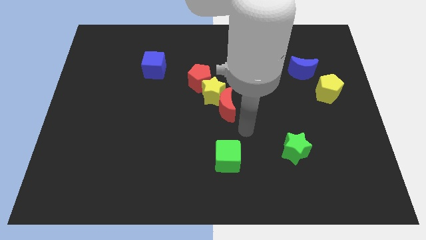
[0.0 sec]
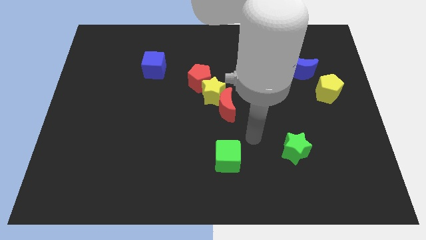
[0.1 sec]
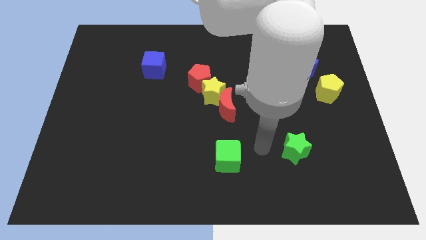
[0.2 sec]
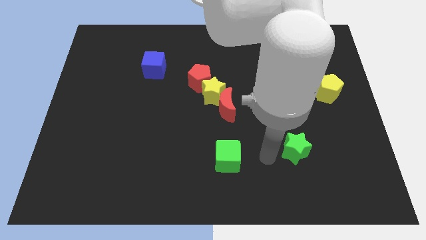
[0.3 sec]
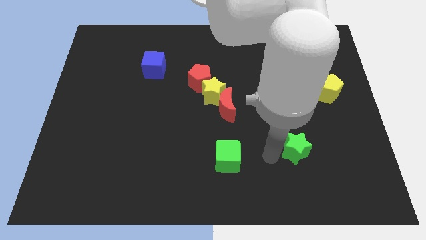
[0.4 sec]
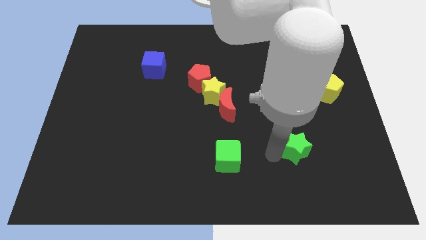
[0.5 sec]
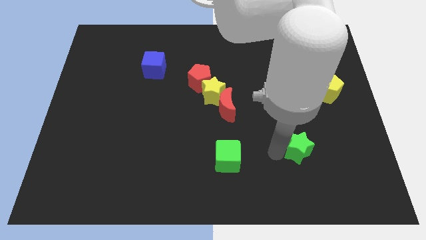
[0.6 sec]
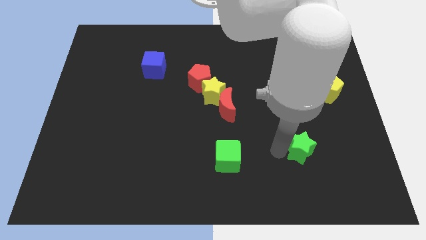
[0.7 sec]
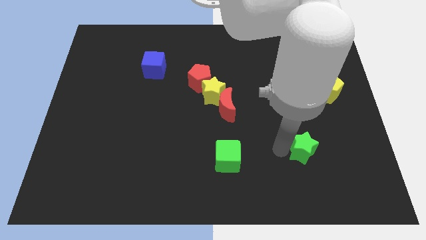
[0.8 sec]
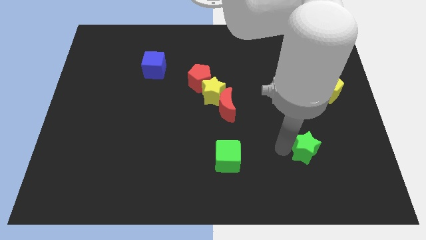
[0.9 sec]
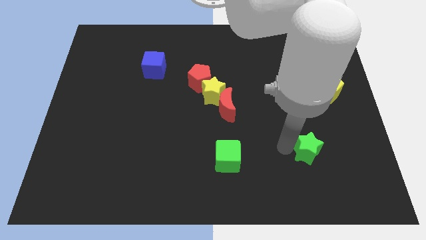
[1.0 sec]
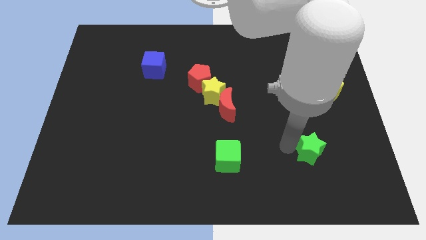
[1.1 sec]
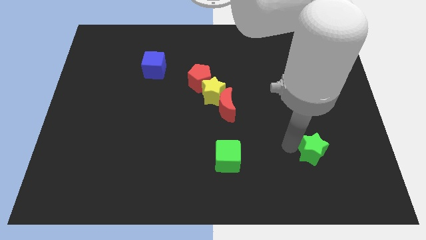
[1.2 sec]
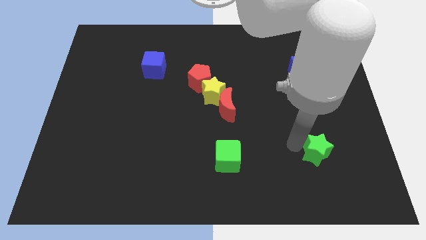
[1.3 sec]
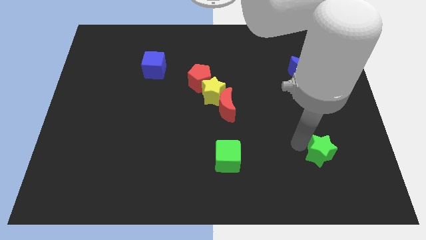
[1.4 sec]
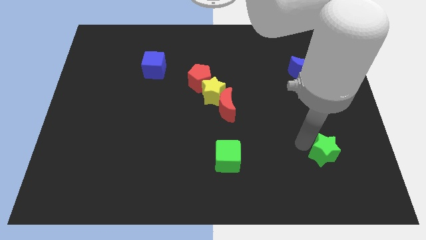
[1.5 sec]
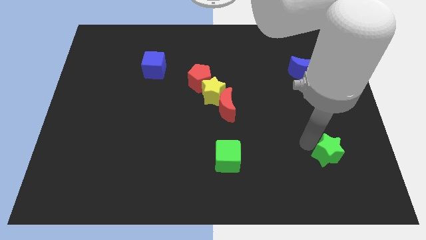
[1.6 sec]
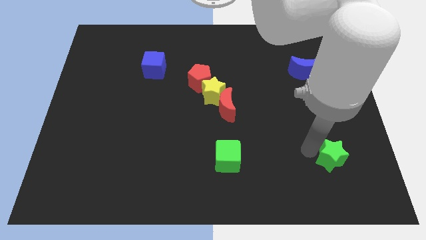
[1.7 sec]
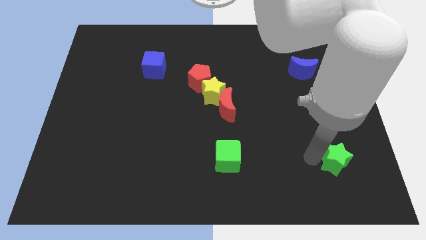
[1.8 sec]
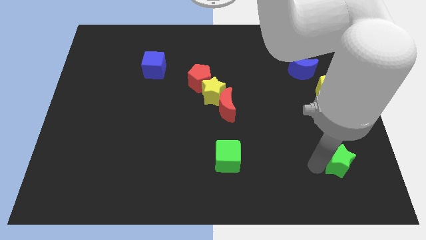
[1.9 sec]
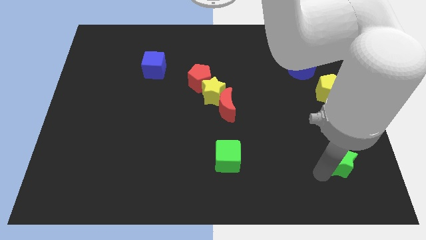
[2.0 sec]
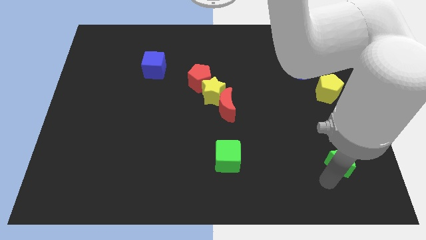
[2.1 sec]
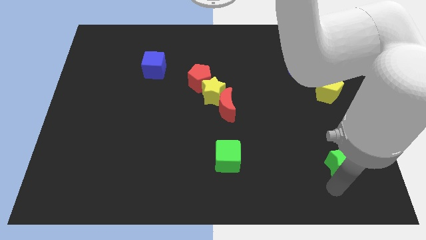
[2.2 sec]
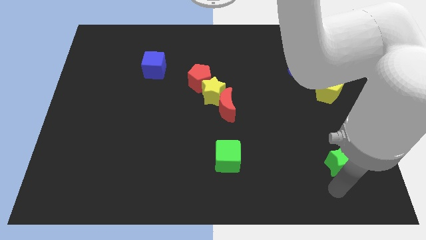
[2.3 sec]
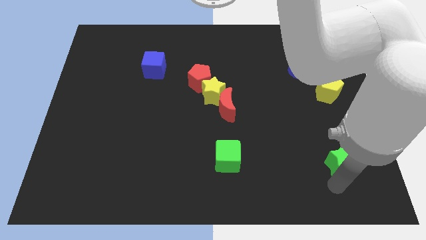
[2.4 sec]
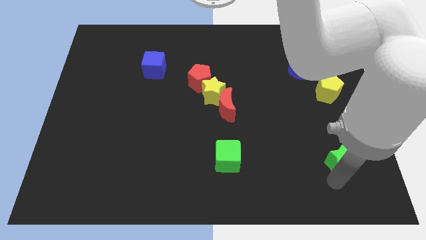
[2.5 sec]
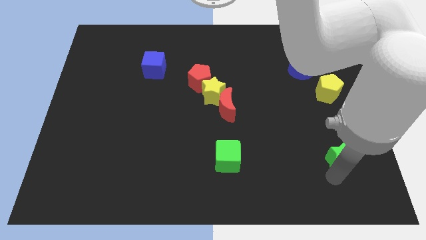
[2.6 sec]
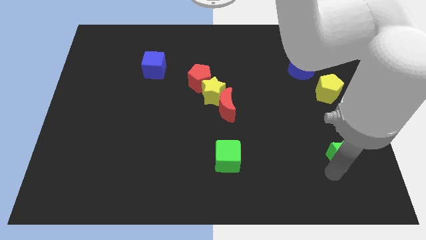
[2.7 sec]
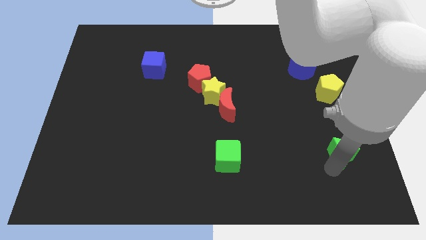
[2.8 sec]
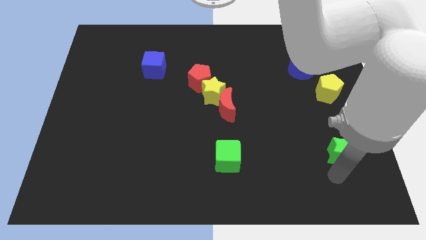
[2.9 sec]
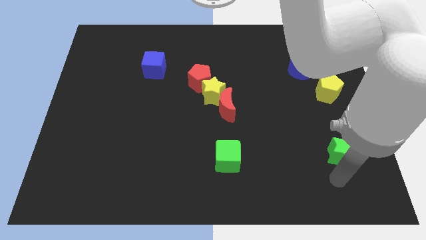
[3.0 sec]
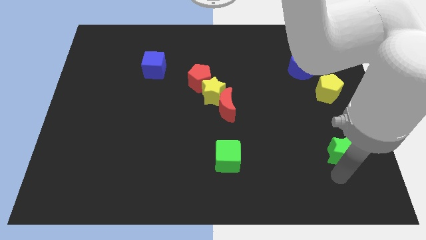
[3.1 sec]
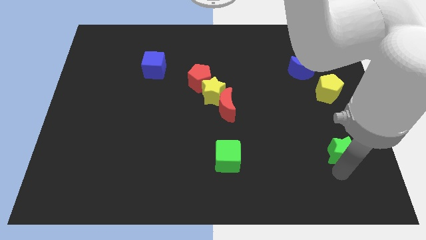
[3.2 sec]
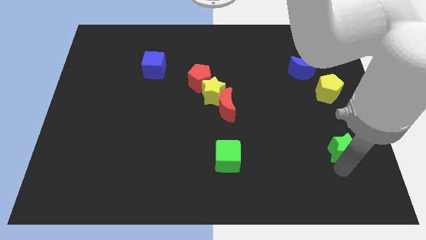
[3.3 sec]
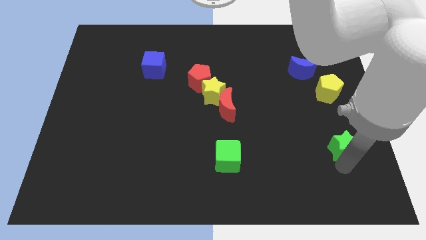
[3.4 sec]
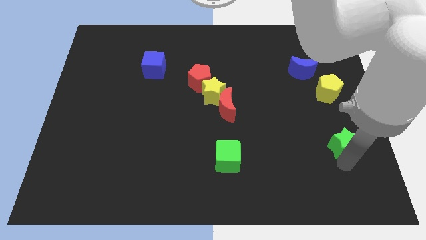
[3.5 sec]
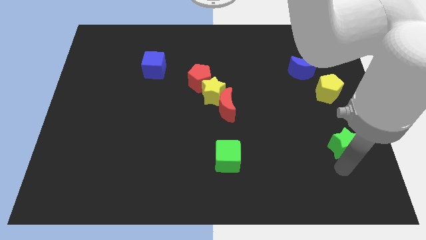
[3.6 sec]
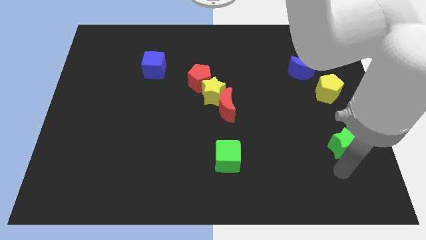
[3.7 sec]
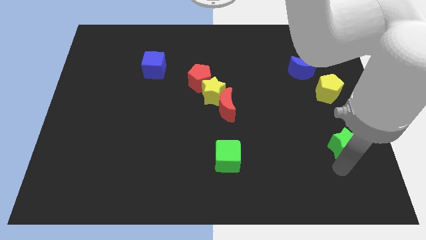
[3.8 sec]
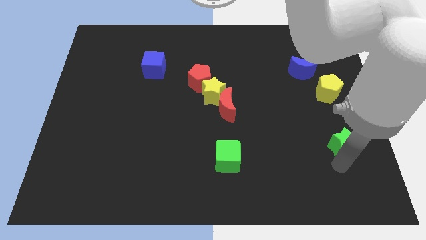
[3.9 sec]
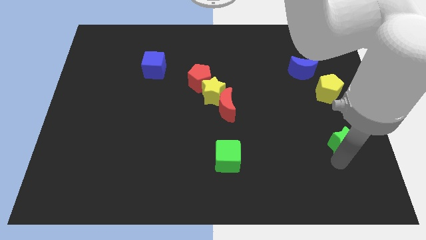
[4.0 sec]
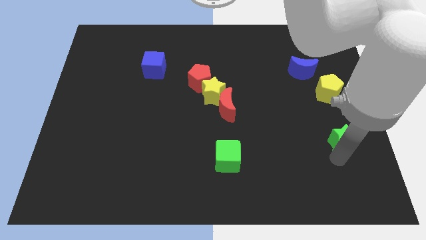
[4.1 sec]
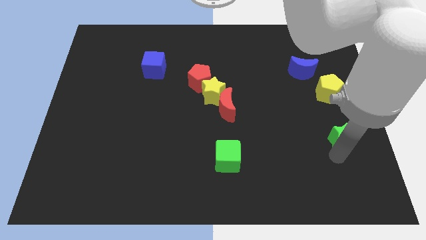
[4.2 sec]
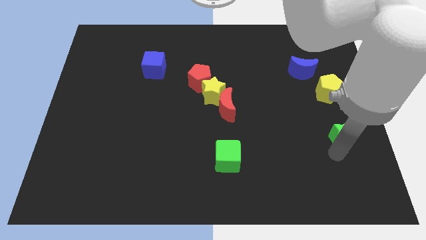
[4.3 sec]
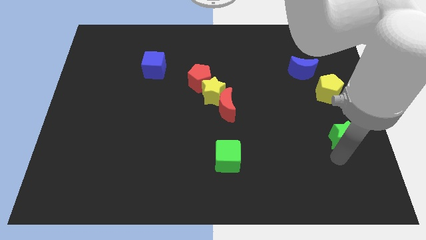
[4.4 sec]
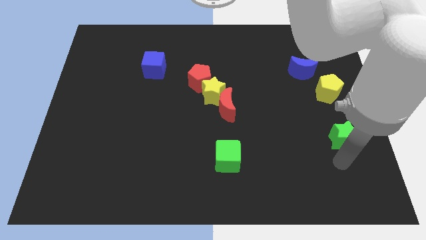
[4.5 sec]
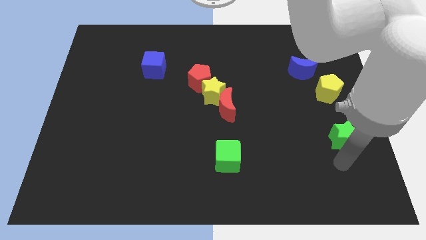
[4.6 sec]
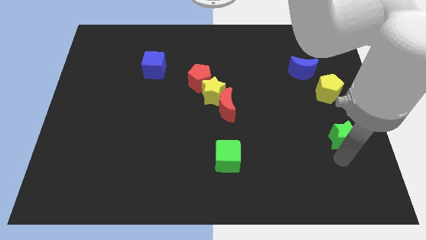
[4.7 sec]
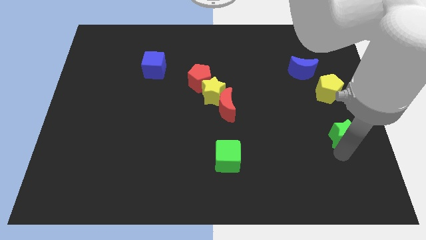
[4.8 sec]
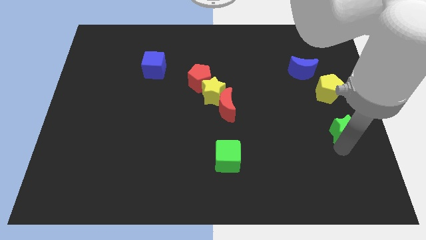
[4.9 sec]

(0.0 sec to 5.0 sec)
slide the green star to the center right

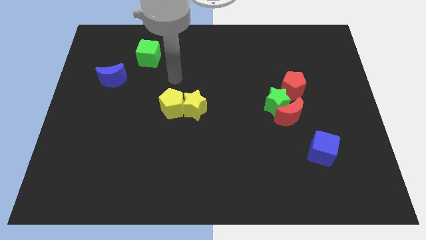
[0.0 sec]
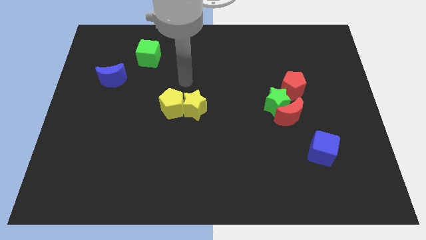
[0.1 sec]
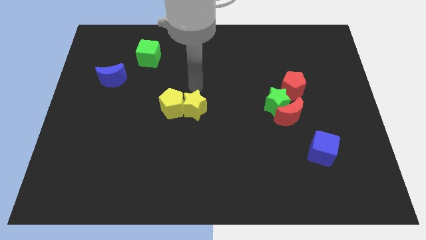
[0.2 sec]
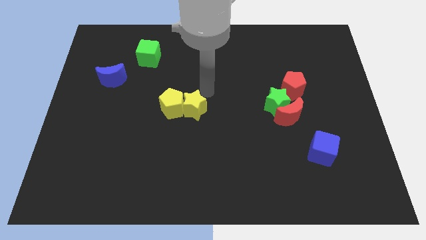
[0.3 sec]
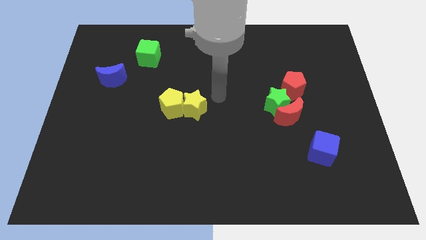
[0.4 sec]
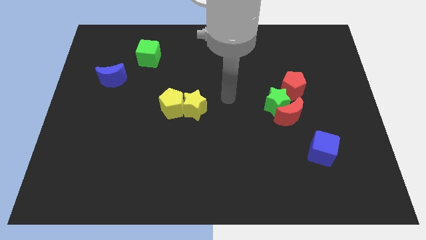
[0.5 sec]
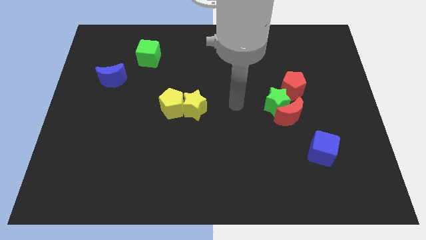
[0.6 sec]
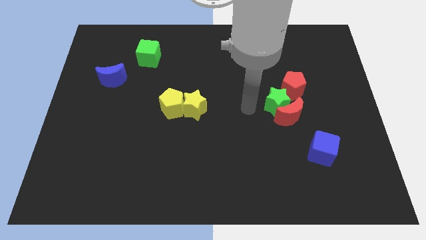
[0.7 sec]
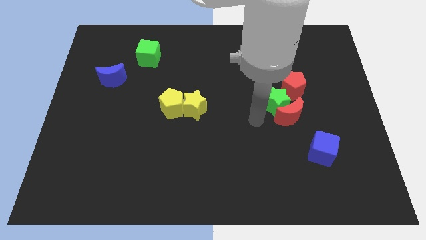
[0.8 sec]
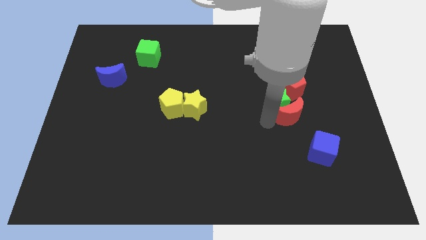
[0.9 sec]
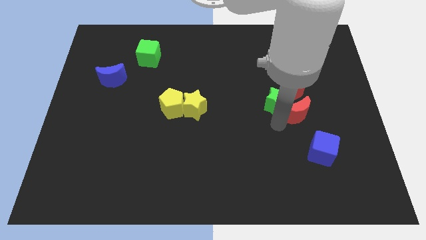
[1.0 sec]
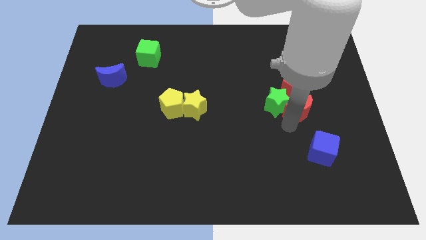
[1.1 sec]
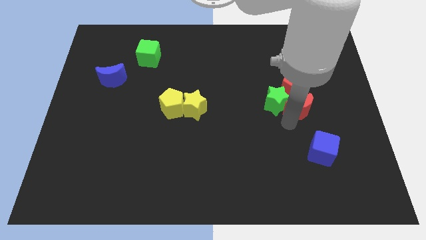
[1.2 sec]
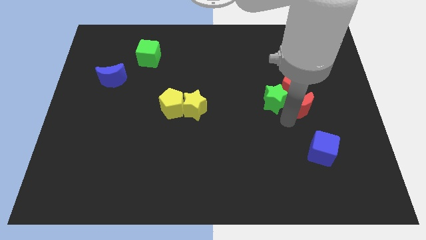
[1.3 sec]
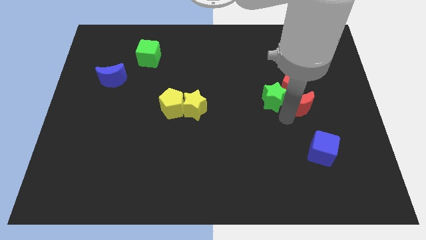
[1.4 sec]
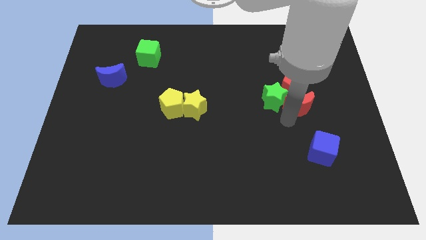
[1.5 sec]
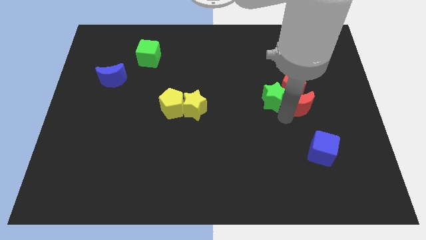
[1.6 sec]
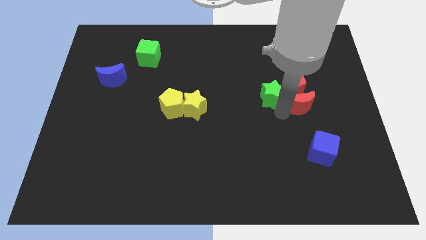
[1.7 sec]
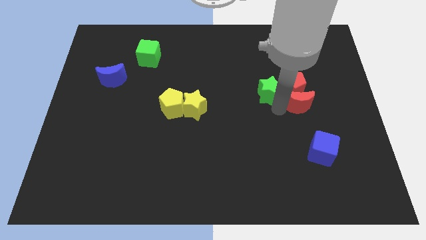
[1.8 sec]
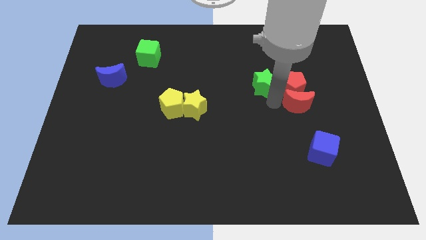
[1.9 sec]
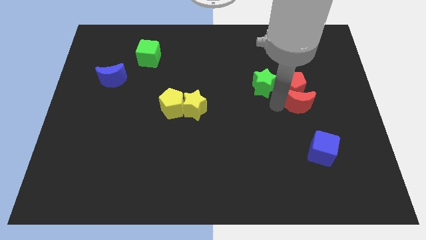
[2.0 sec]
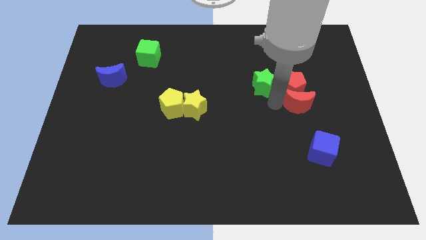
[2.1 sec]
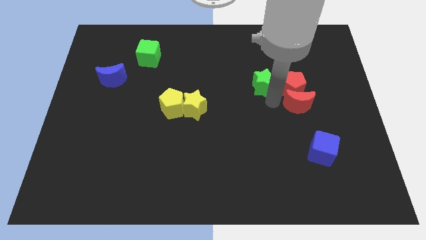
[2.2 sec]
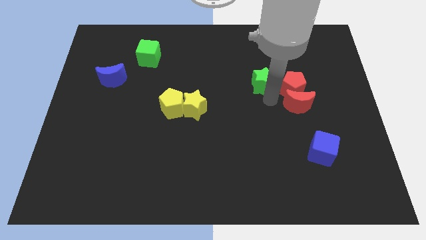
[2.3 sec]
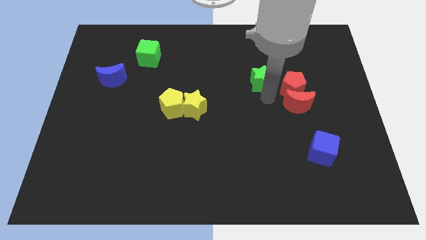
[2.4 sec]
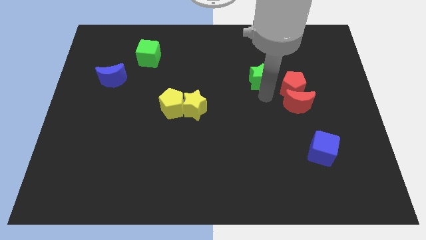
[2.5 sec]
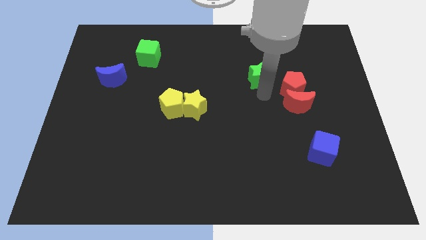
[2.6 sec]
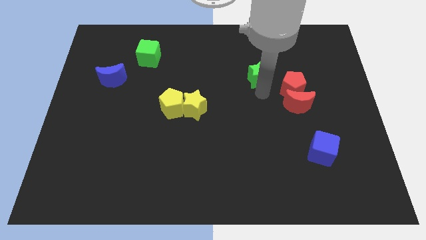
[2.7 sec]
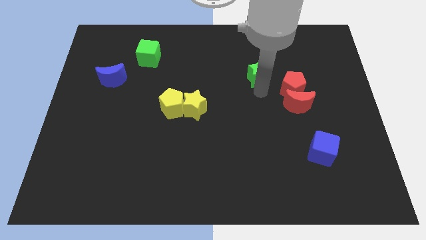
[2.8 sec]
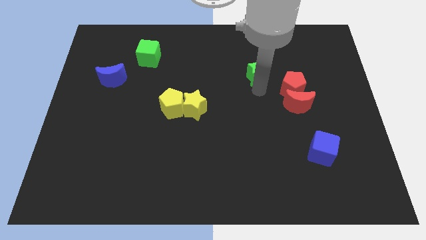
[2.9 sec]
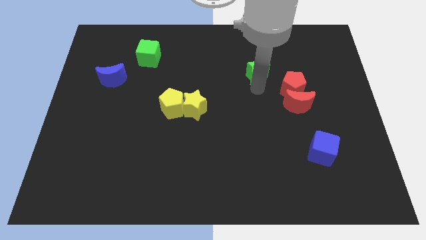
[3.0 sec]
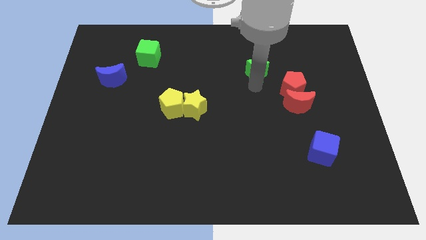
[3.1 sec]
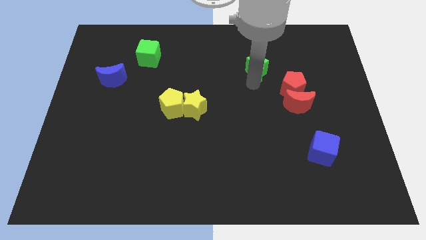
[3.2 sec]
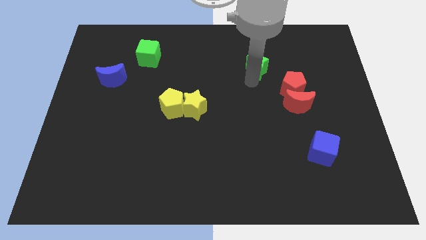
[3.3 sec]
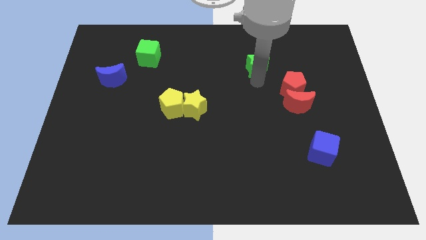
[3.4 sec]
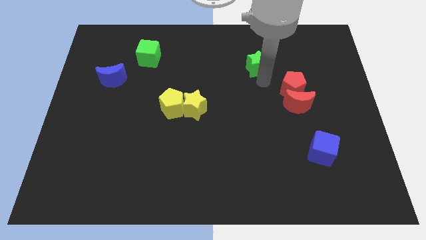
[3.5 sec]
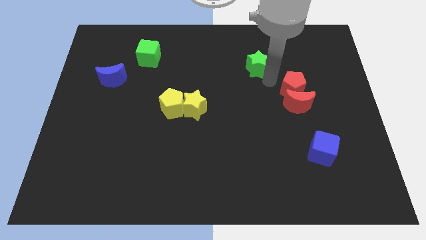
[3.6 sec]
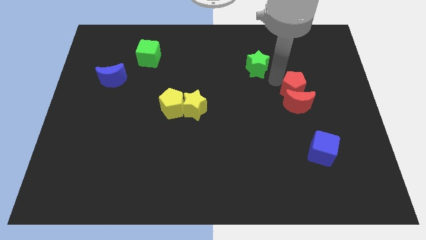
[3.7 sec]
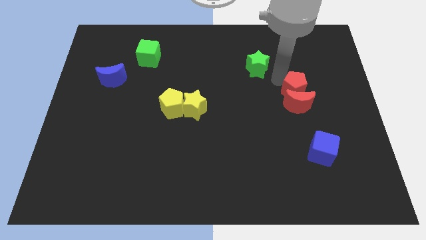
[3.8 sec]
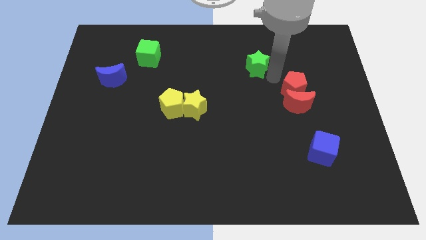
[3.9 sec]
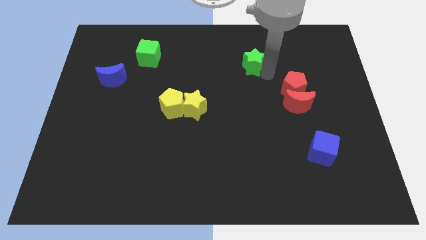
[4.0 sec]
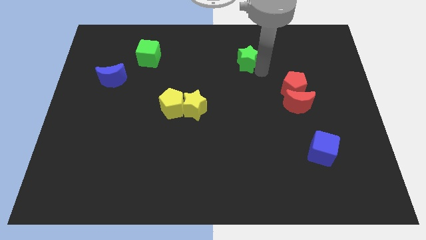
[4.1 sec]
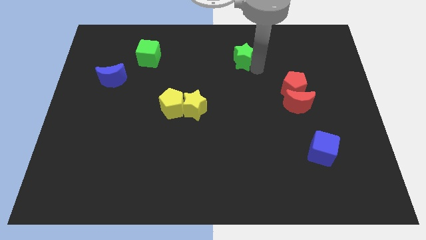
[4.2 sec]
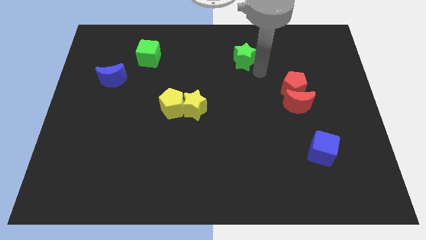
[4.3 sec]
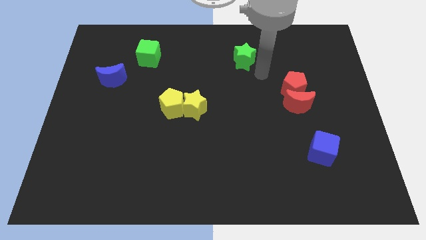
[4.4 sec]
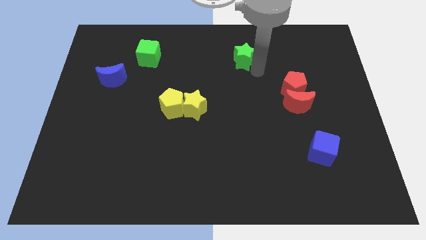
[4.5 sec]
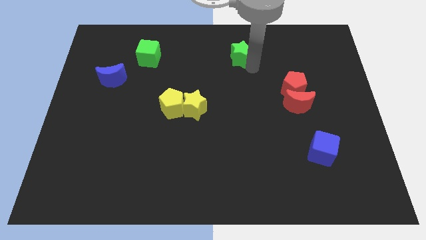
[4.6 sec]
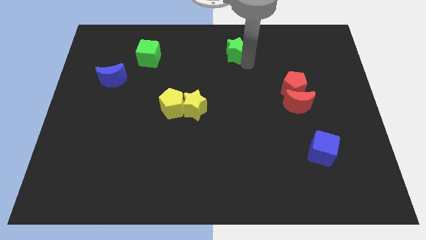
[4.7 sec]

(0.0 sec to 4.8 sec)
push the green star to the top side
